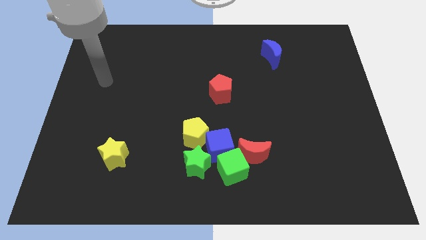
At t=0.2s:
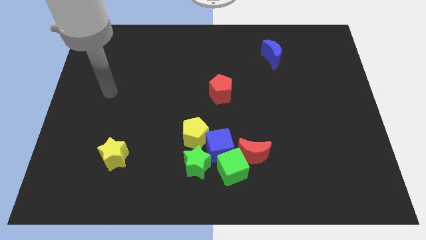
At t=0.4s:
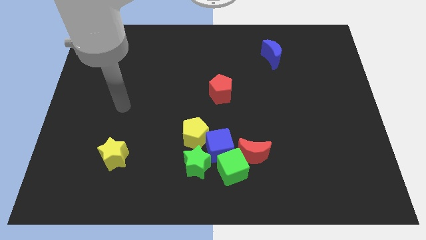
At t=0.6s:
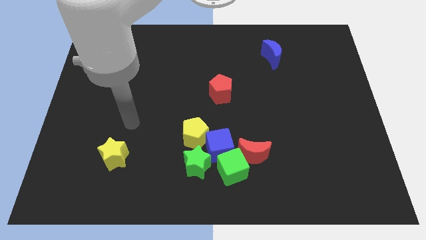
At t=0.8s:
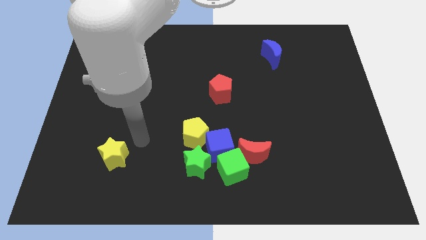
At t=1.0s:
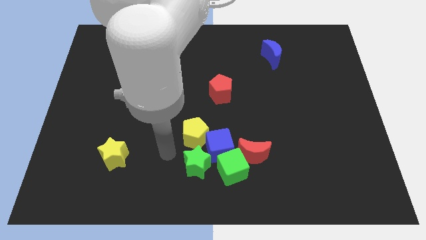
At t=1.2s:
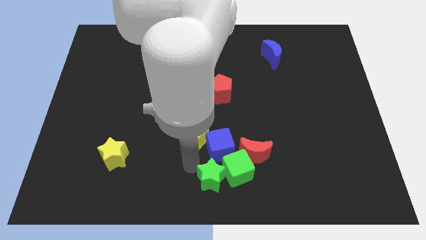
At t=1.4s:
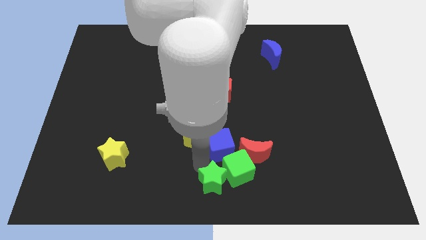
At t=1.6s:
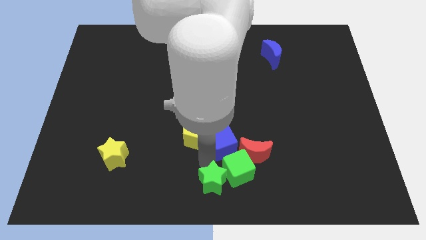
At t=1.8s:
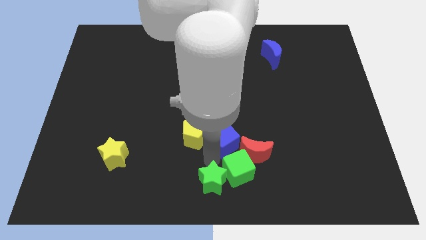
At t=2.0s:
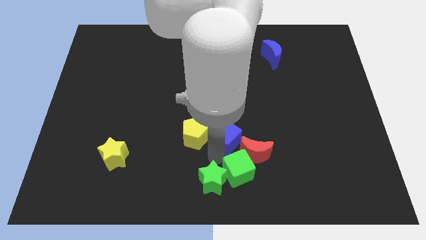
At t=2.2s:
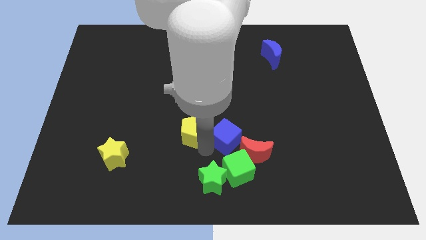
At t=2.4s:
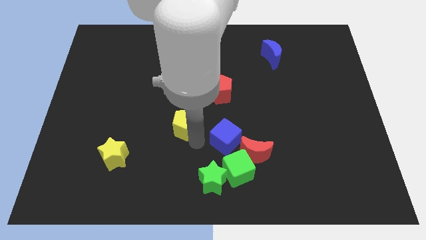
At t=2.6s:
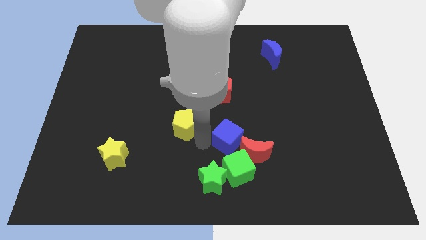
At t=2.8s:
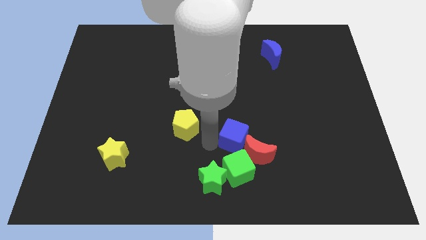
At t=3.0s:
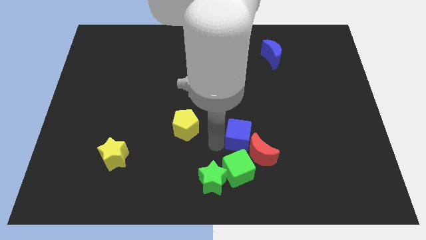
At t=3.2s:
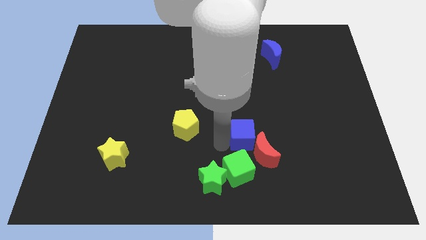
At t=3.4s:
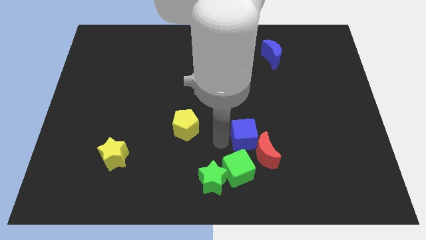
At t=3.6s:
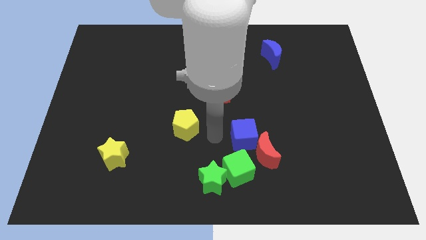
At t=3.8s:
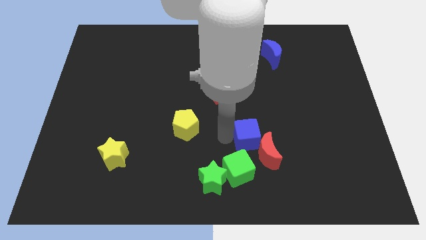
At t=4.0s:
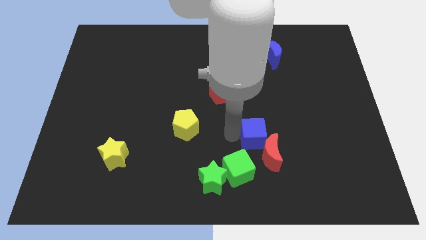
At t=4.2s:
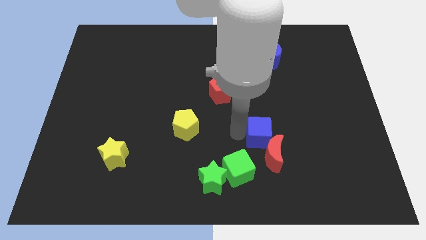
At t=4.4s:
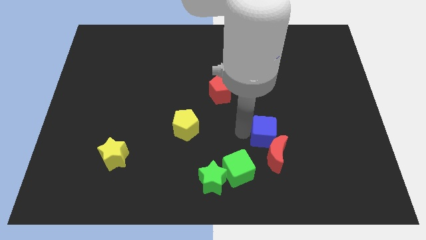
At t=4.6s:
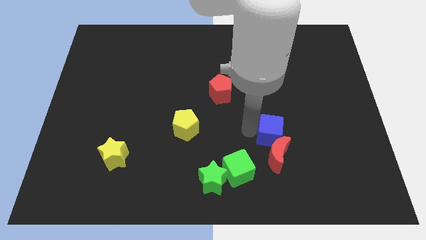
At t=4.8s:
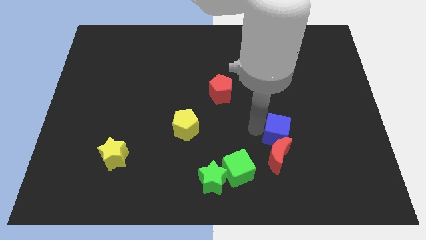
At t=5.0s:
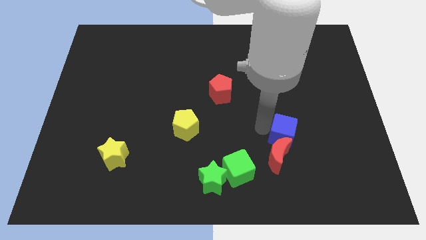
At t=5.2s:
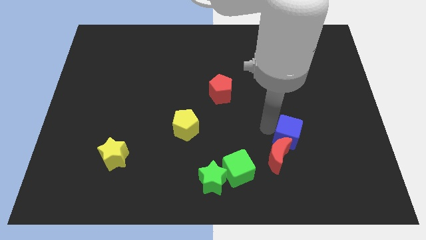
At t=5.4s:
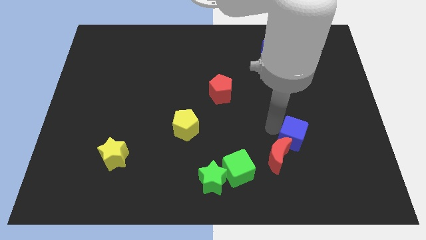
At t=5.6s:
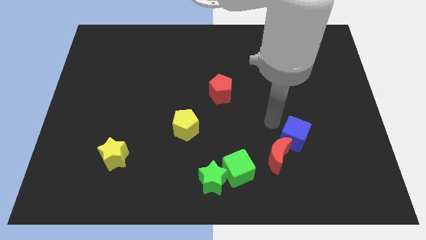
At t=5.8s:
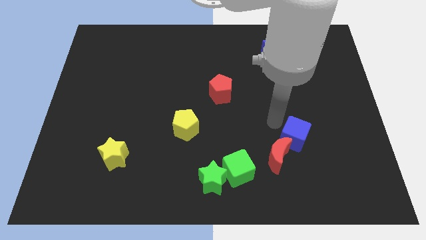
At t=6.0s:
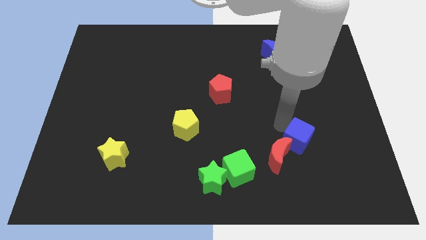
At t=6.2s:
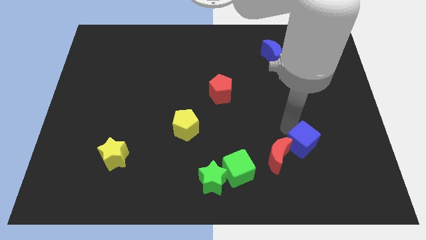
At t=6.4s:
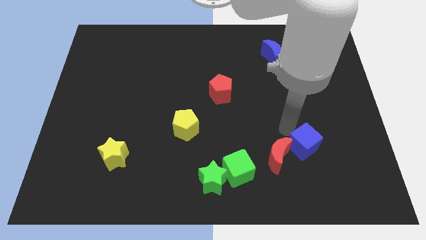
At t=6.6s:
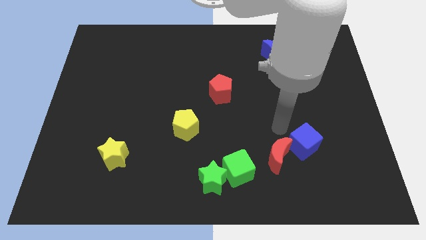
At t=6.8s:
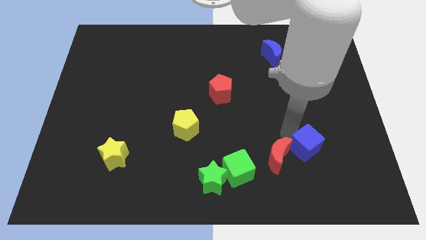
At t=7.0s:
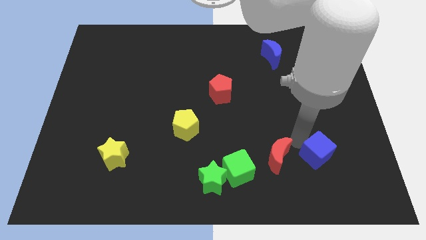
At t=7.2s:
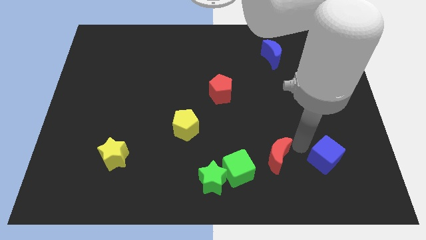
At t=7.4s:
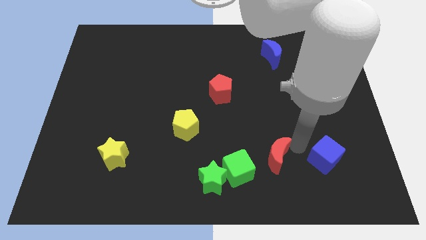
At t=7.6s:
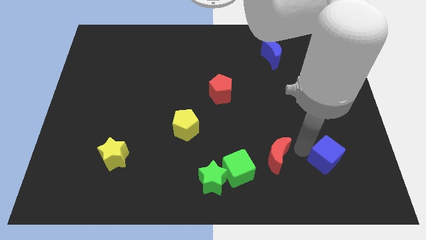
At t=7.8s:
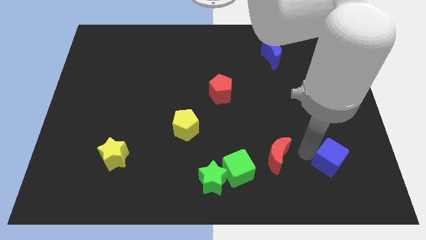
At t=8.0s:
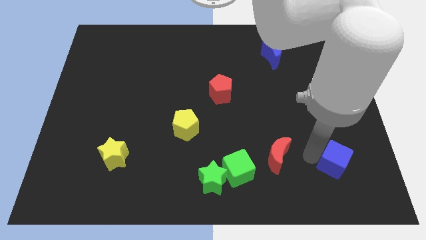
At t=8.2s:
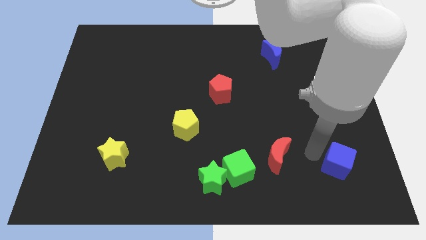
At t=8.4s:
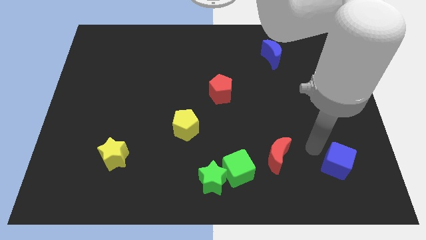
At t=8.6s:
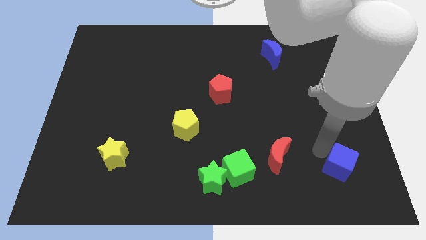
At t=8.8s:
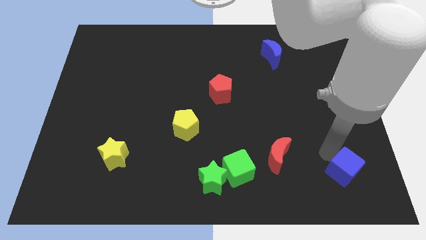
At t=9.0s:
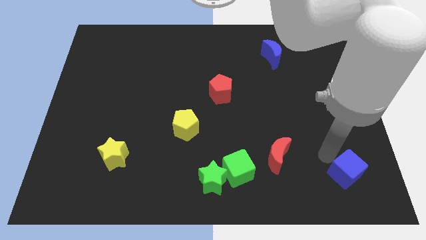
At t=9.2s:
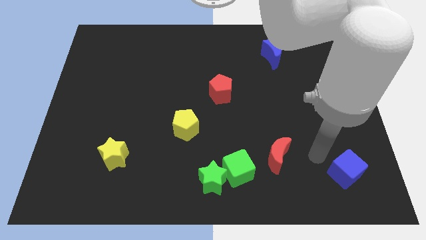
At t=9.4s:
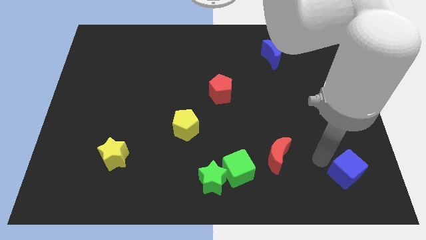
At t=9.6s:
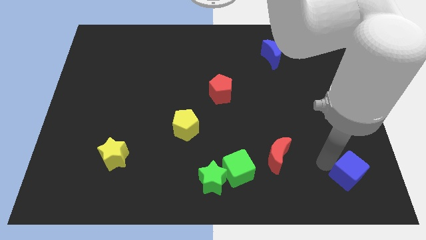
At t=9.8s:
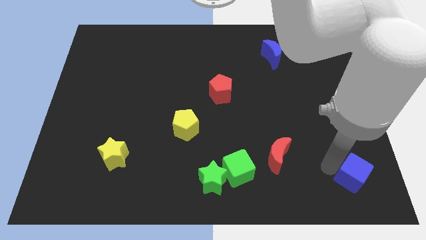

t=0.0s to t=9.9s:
push the blue cube to the bottom right

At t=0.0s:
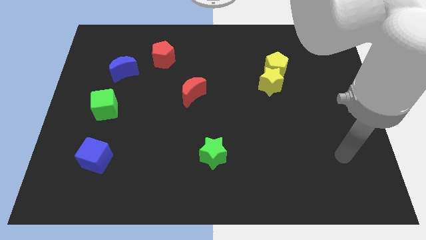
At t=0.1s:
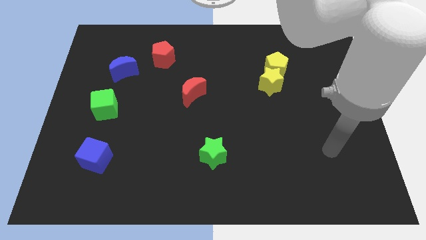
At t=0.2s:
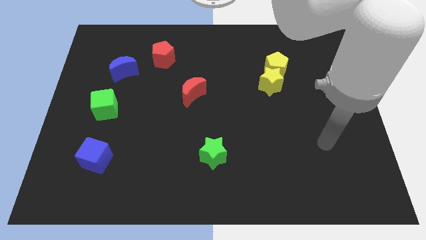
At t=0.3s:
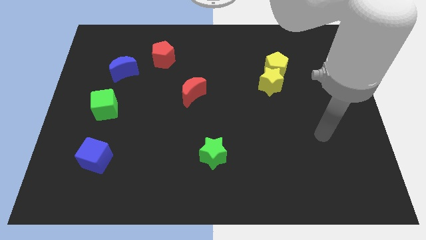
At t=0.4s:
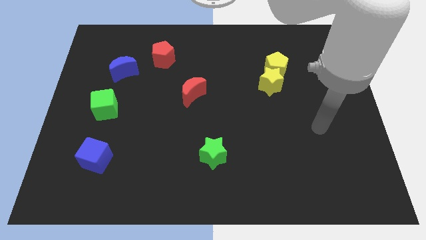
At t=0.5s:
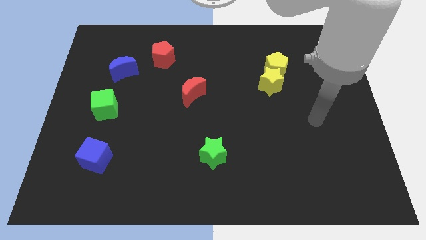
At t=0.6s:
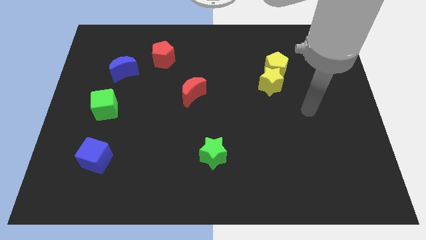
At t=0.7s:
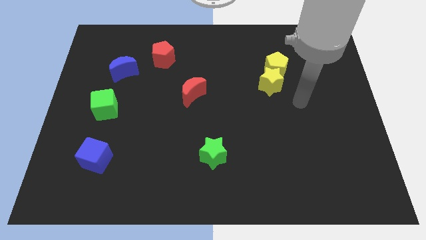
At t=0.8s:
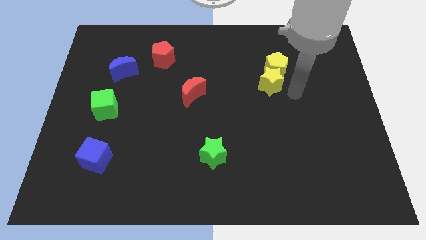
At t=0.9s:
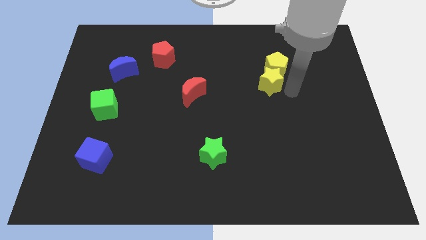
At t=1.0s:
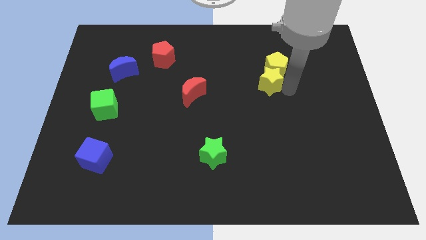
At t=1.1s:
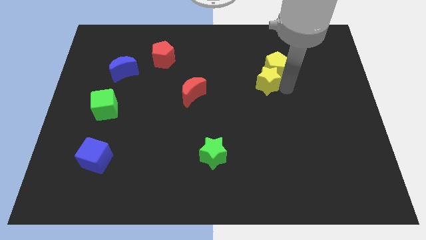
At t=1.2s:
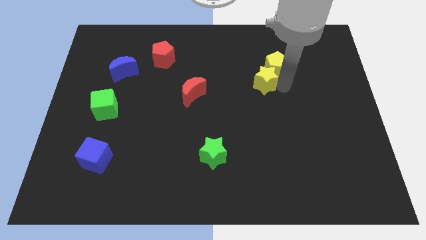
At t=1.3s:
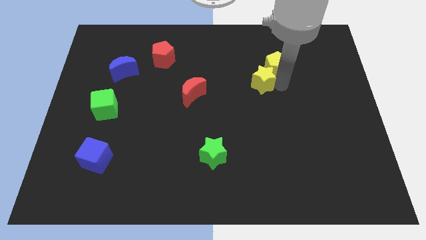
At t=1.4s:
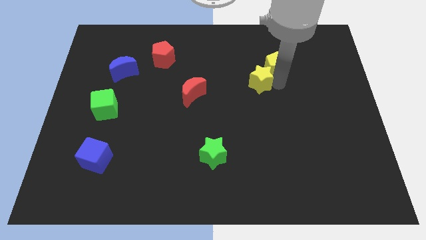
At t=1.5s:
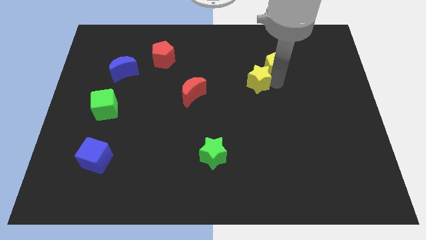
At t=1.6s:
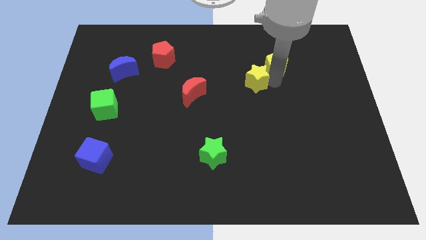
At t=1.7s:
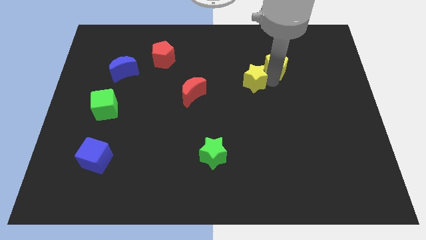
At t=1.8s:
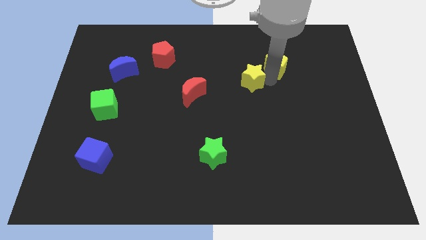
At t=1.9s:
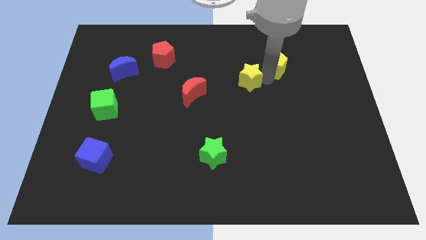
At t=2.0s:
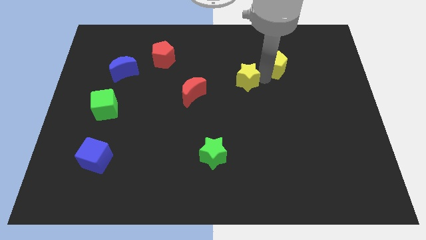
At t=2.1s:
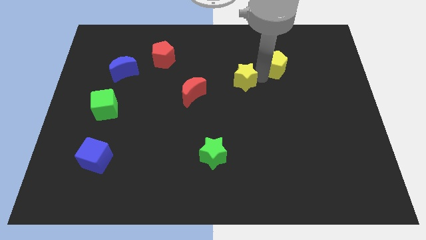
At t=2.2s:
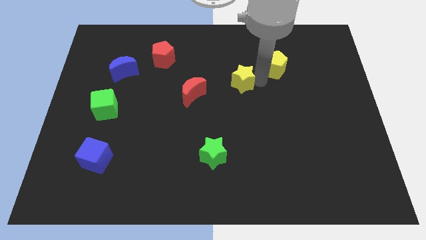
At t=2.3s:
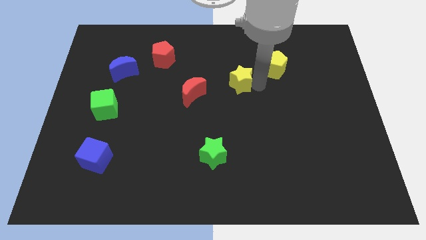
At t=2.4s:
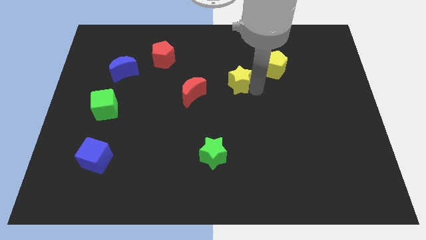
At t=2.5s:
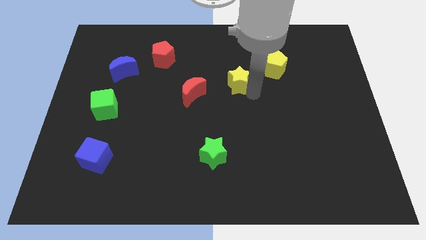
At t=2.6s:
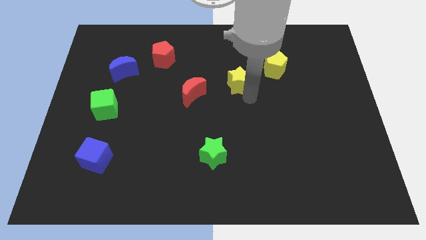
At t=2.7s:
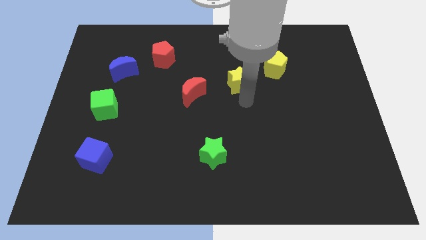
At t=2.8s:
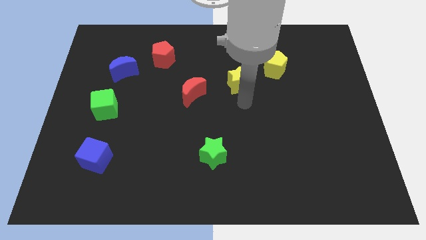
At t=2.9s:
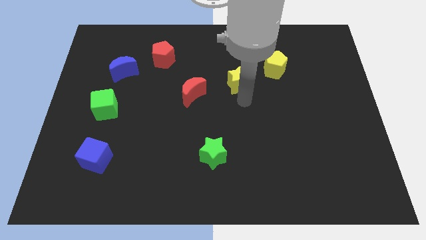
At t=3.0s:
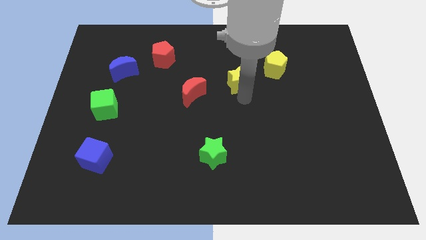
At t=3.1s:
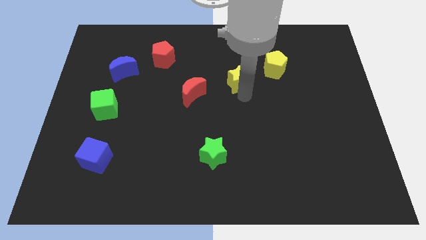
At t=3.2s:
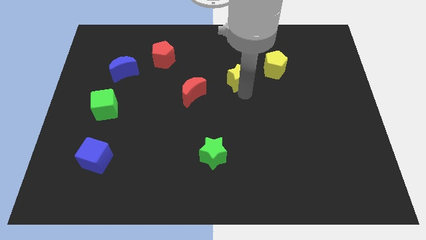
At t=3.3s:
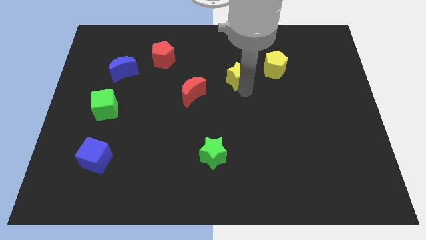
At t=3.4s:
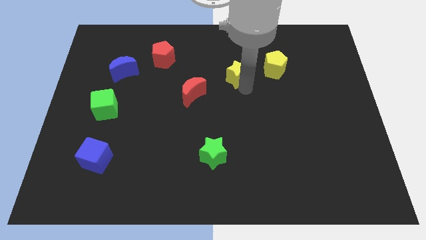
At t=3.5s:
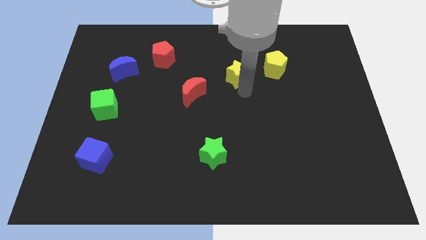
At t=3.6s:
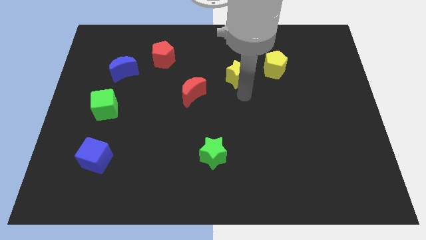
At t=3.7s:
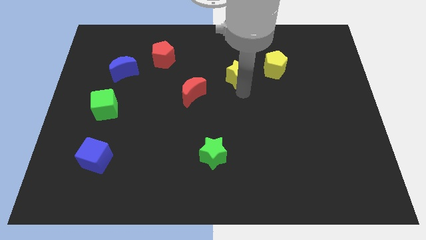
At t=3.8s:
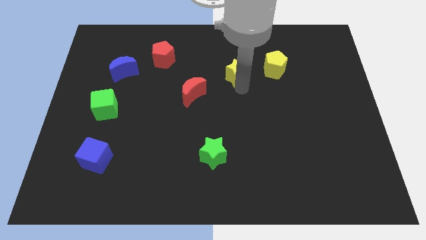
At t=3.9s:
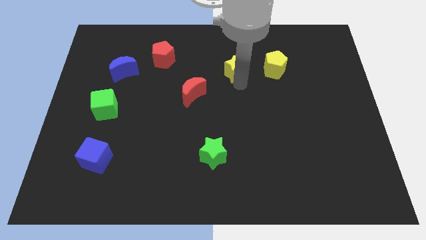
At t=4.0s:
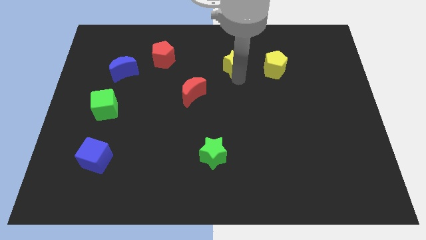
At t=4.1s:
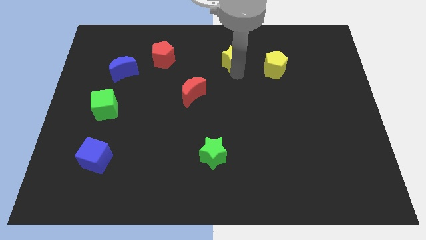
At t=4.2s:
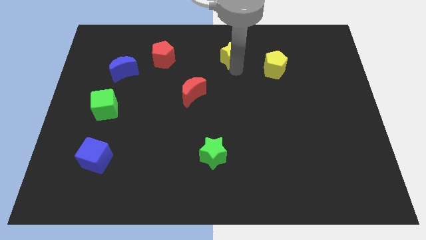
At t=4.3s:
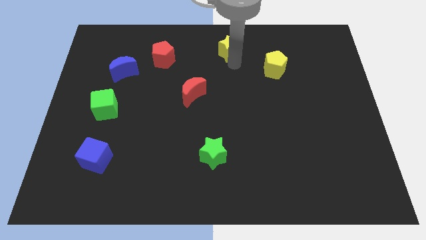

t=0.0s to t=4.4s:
put the yellow star to the top
